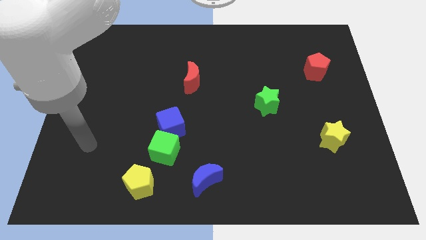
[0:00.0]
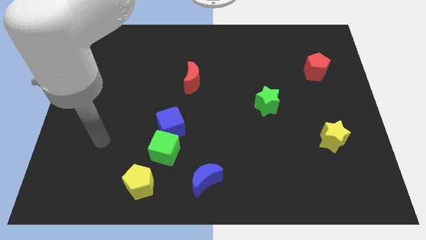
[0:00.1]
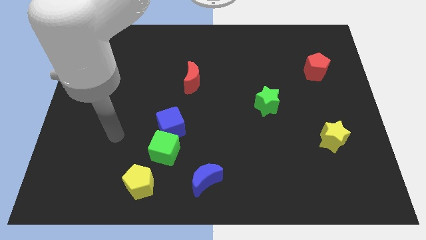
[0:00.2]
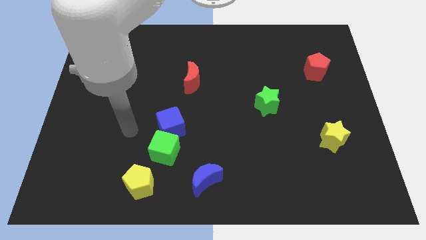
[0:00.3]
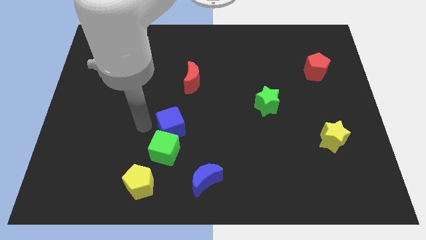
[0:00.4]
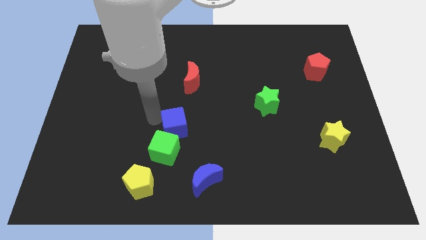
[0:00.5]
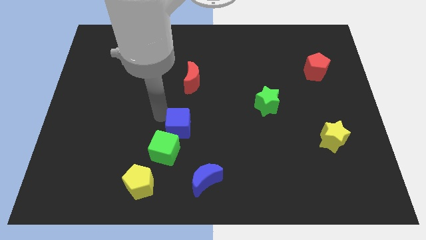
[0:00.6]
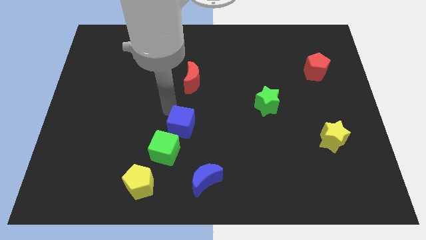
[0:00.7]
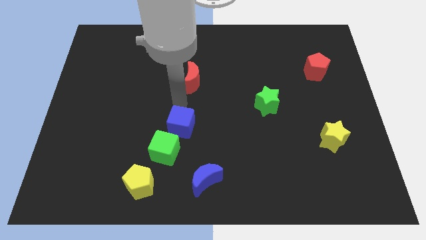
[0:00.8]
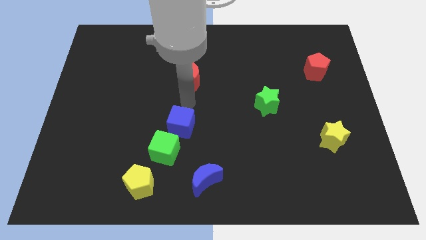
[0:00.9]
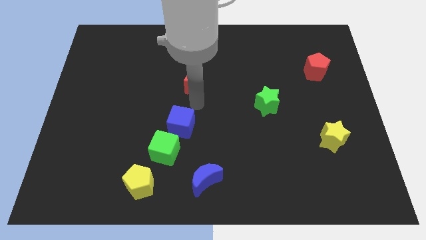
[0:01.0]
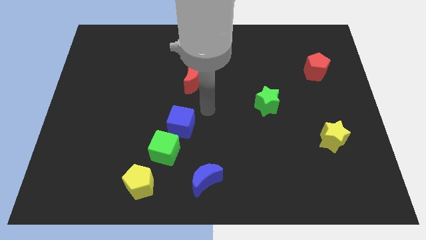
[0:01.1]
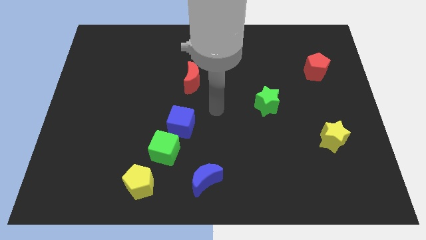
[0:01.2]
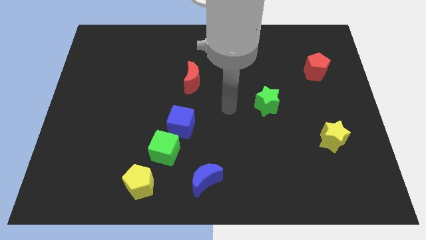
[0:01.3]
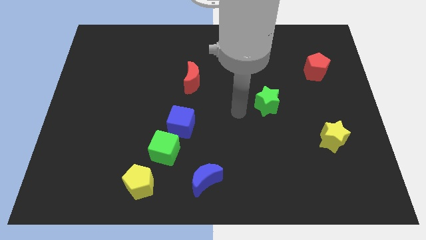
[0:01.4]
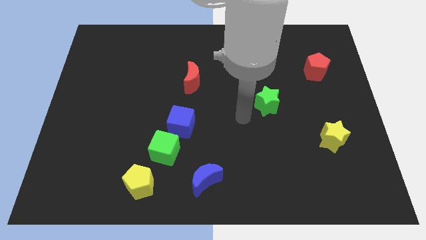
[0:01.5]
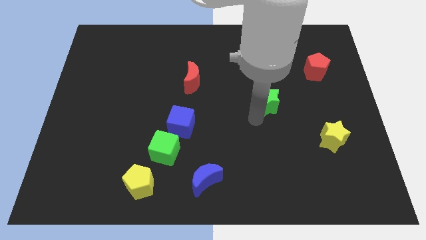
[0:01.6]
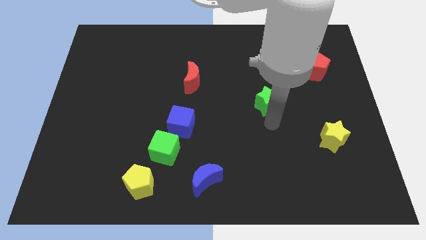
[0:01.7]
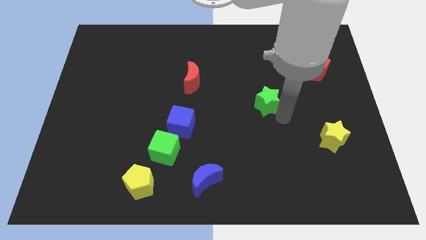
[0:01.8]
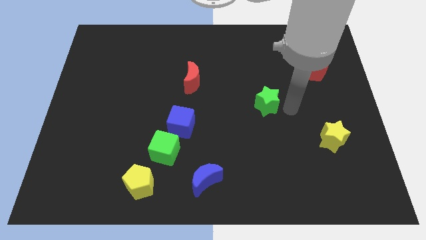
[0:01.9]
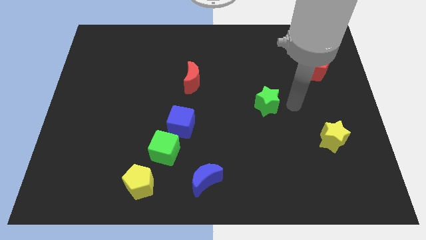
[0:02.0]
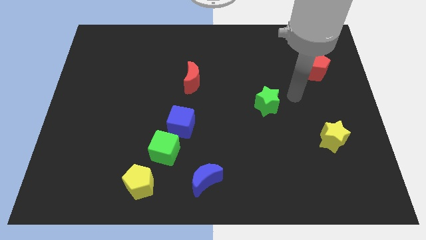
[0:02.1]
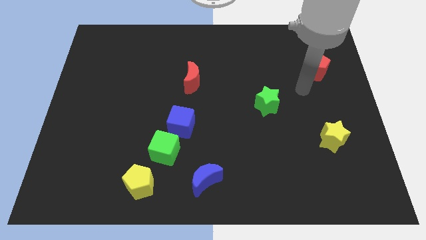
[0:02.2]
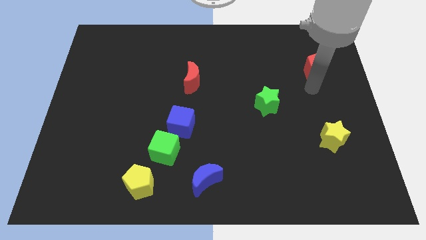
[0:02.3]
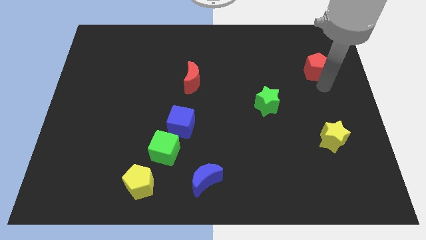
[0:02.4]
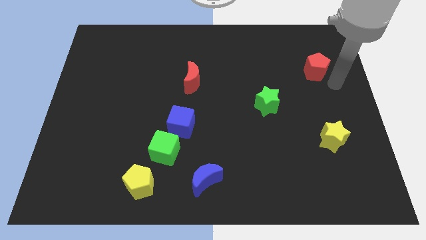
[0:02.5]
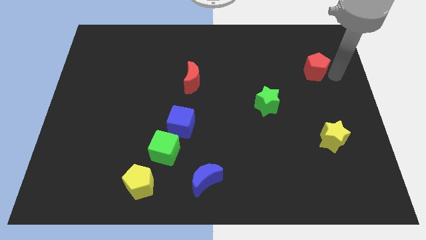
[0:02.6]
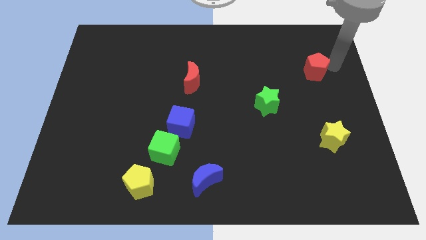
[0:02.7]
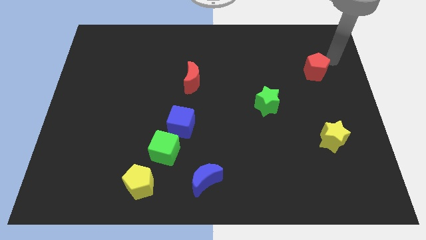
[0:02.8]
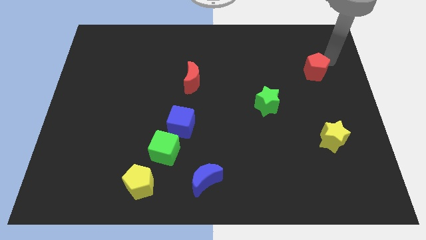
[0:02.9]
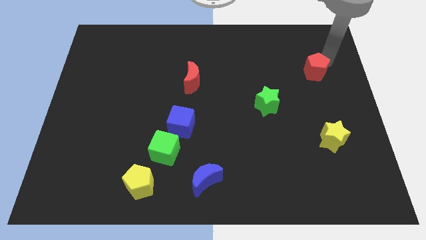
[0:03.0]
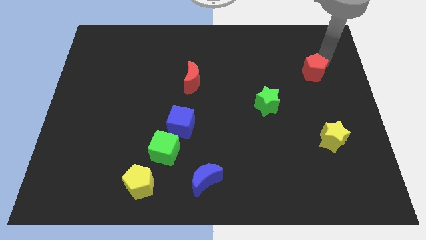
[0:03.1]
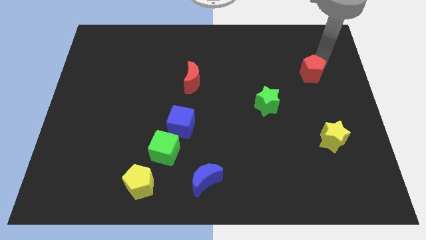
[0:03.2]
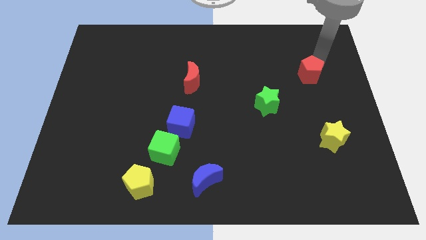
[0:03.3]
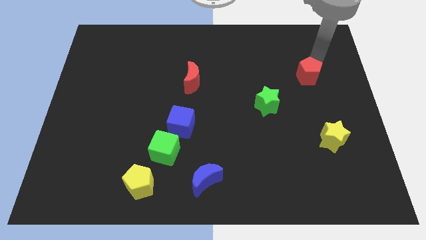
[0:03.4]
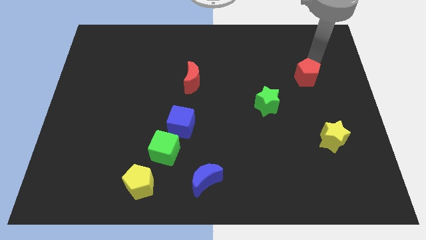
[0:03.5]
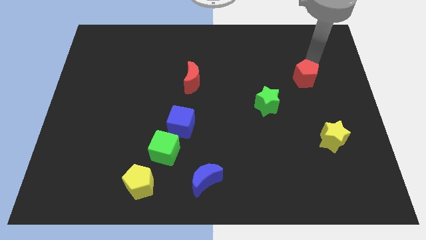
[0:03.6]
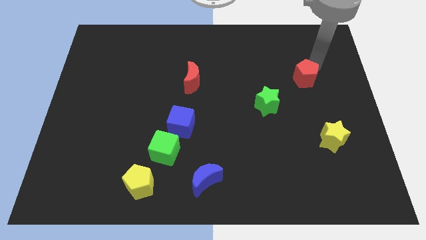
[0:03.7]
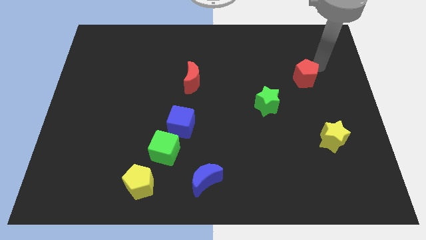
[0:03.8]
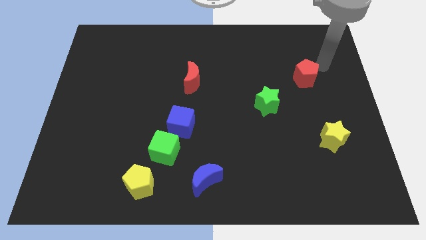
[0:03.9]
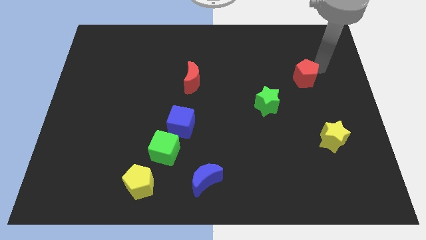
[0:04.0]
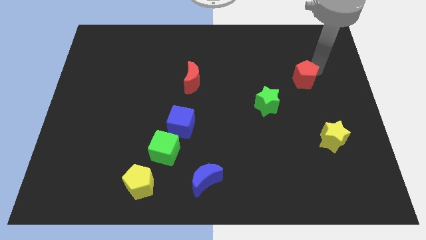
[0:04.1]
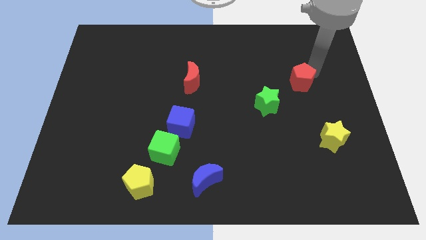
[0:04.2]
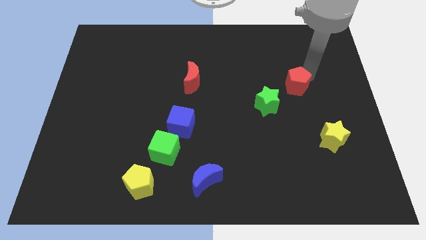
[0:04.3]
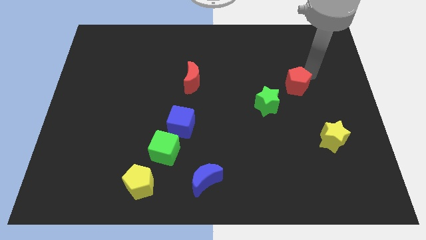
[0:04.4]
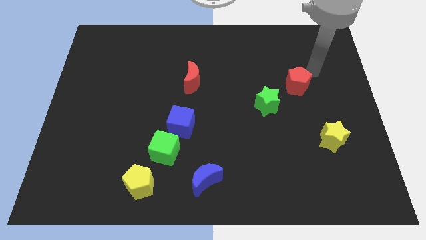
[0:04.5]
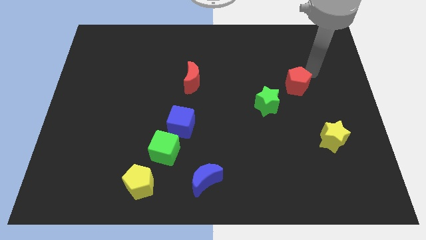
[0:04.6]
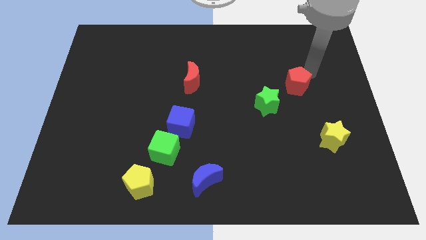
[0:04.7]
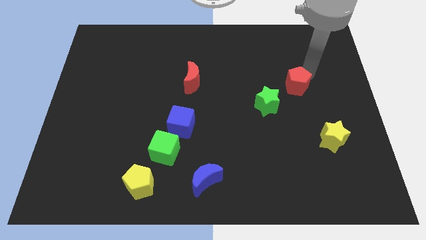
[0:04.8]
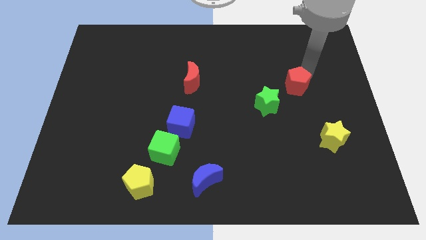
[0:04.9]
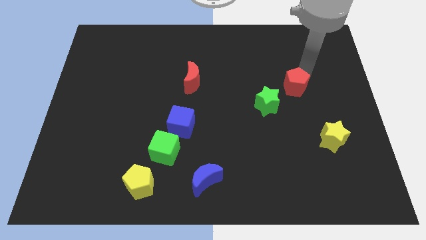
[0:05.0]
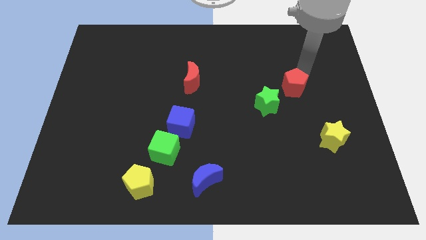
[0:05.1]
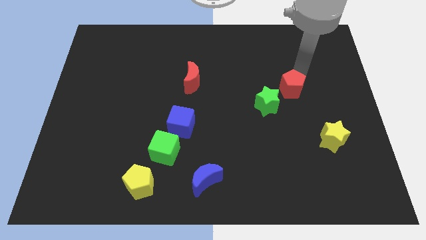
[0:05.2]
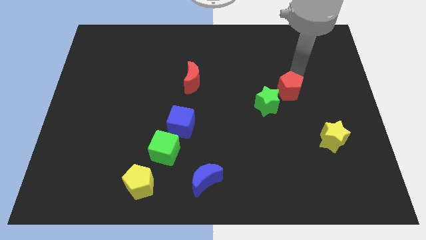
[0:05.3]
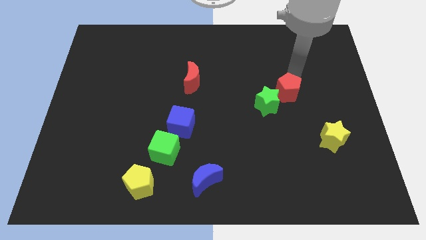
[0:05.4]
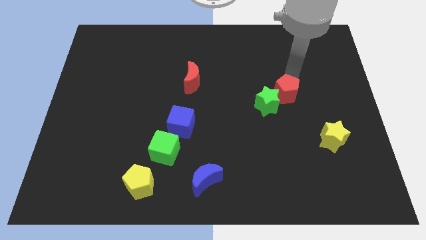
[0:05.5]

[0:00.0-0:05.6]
put the red pentagon next to the green star

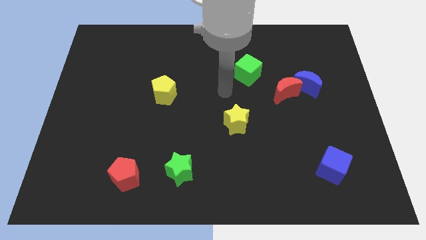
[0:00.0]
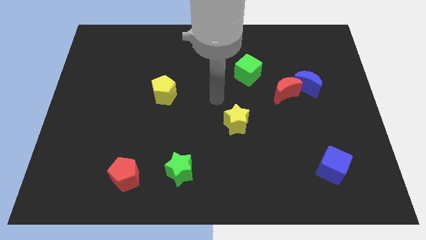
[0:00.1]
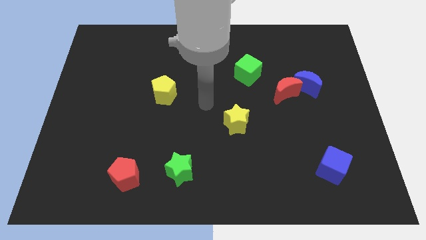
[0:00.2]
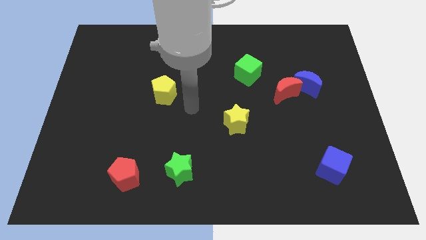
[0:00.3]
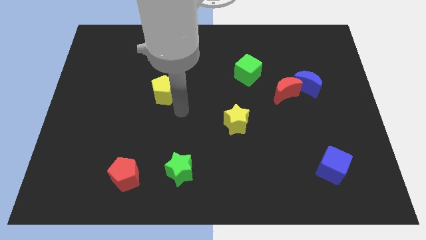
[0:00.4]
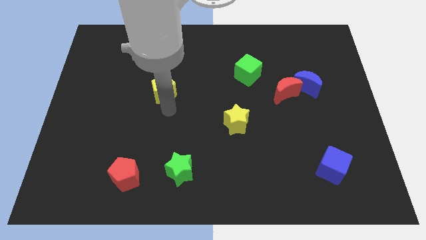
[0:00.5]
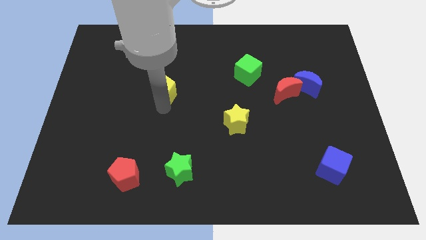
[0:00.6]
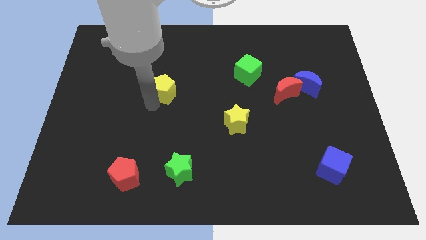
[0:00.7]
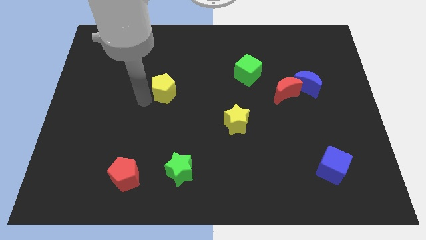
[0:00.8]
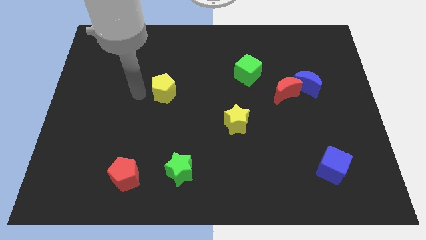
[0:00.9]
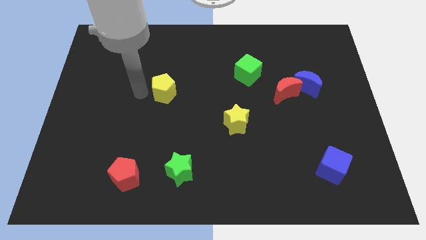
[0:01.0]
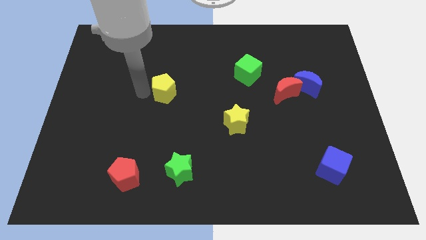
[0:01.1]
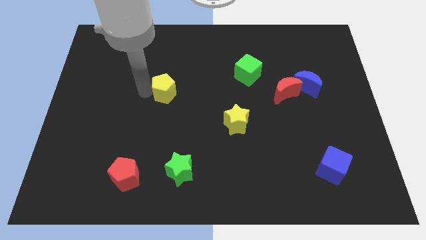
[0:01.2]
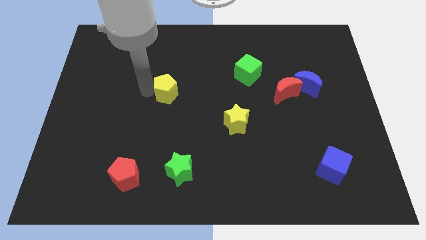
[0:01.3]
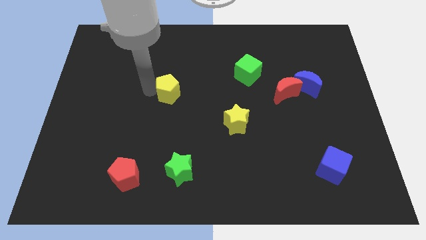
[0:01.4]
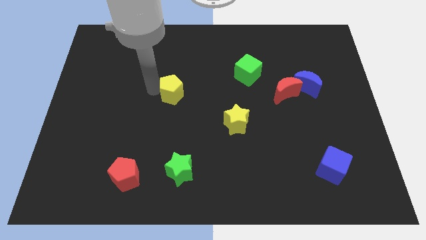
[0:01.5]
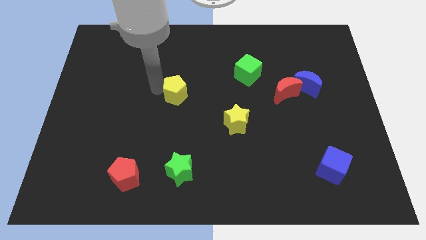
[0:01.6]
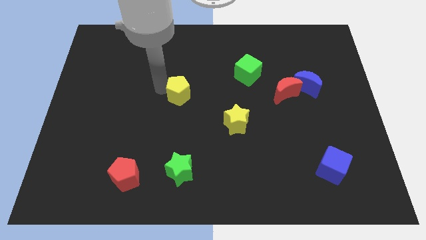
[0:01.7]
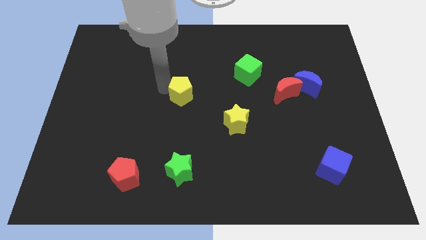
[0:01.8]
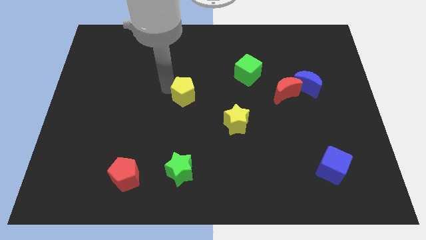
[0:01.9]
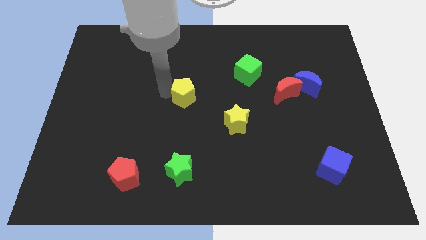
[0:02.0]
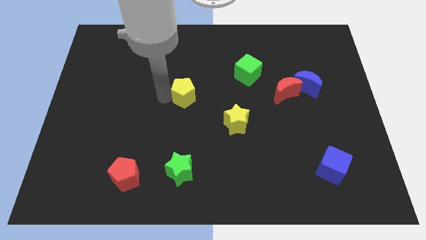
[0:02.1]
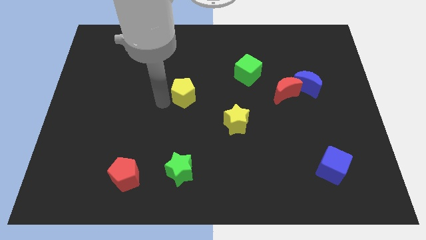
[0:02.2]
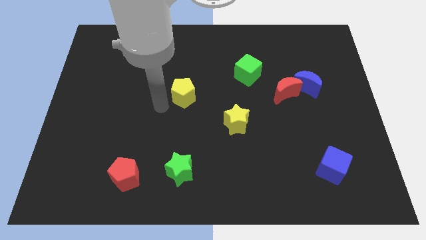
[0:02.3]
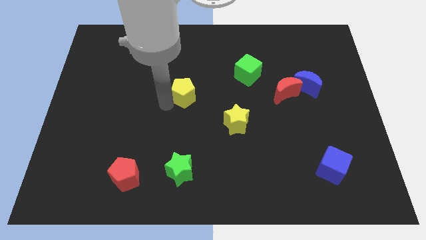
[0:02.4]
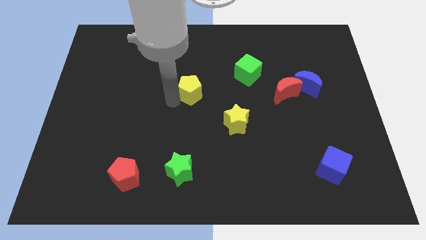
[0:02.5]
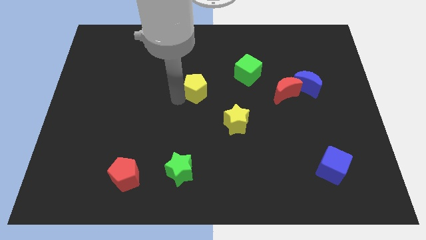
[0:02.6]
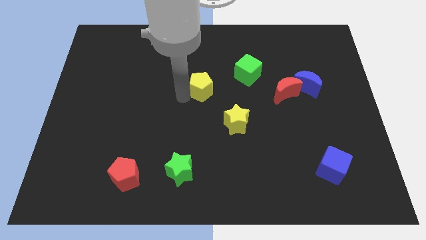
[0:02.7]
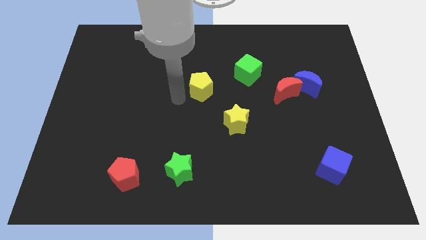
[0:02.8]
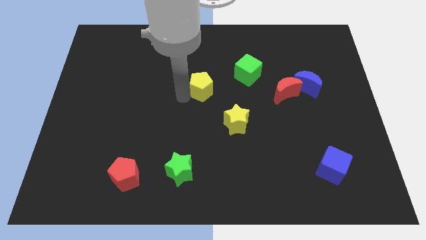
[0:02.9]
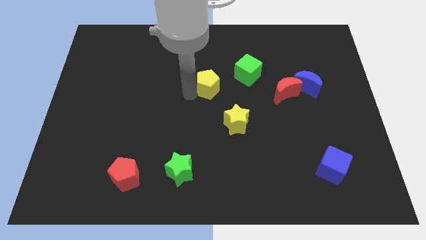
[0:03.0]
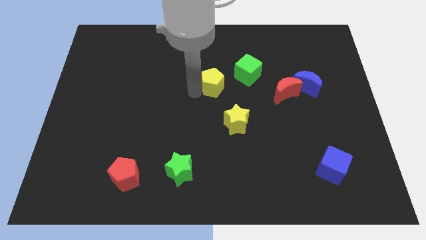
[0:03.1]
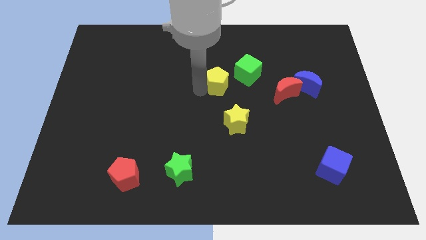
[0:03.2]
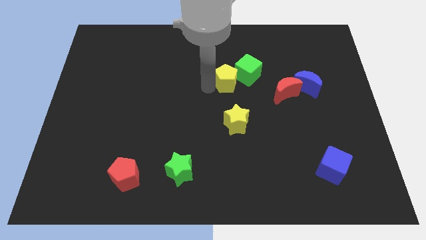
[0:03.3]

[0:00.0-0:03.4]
move the yellow pentagon close to the green cube
